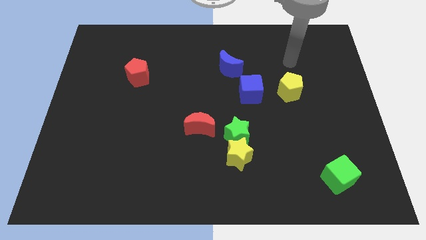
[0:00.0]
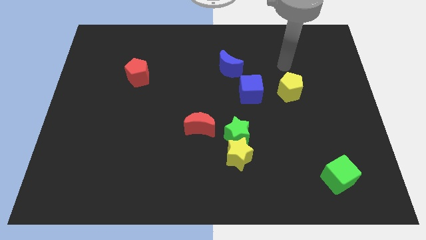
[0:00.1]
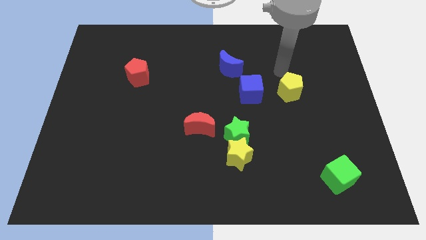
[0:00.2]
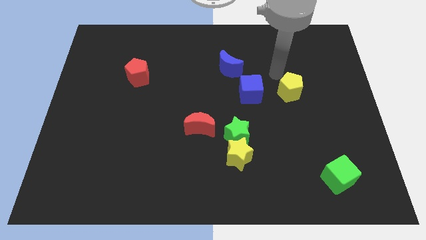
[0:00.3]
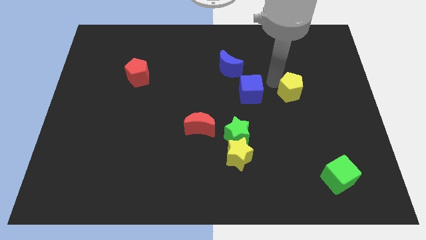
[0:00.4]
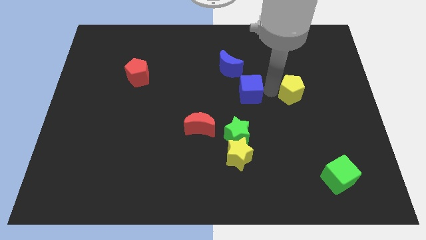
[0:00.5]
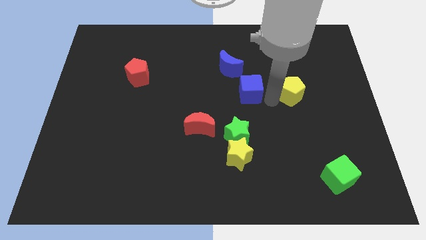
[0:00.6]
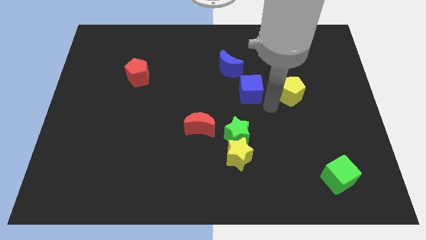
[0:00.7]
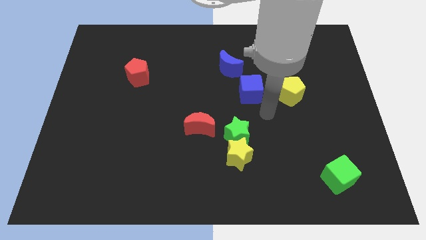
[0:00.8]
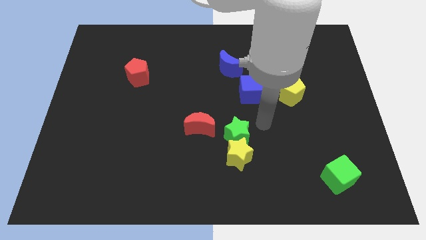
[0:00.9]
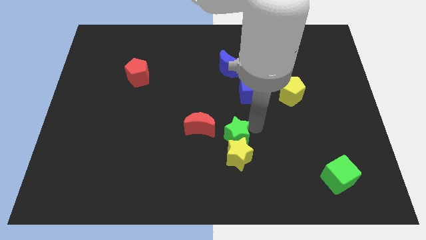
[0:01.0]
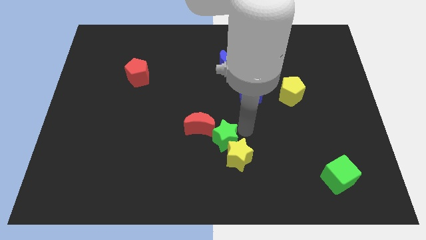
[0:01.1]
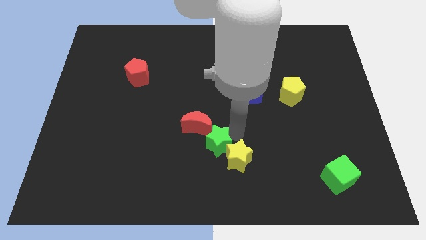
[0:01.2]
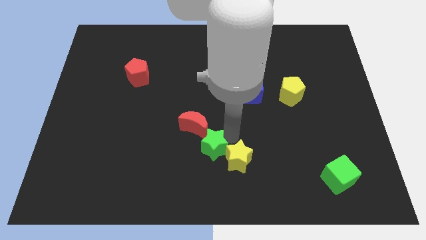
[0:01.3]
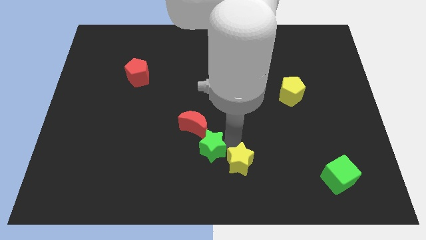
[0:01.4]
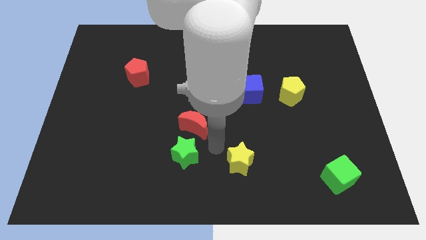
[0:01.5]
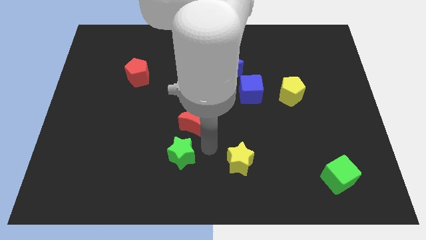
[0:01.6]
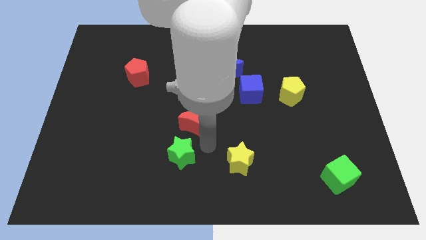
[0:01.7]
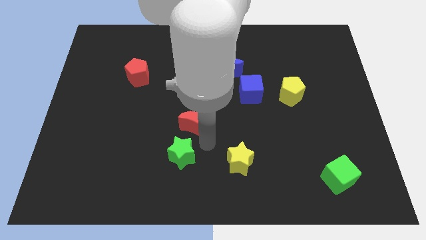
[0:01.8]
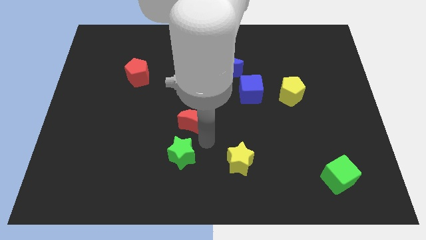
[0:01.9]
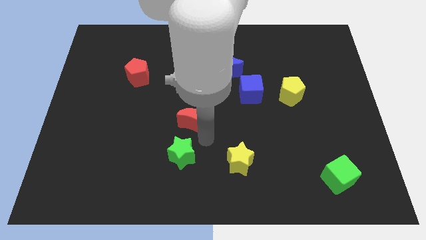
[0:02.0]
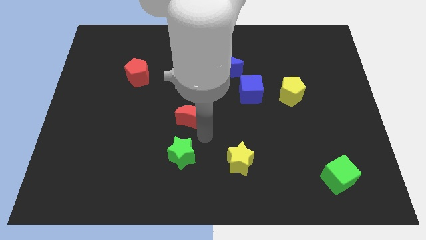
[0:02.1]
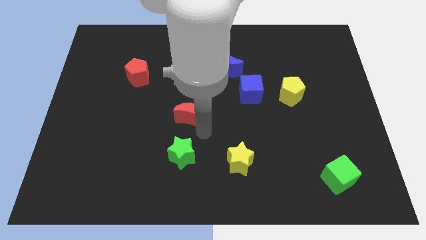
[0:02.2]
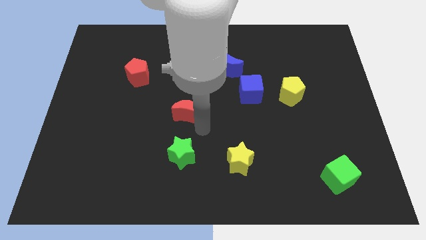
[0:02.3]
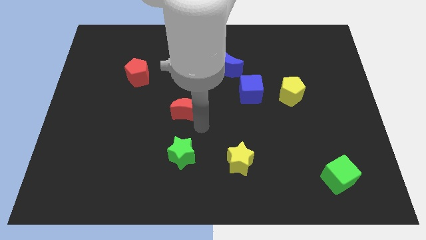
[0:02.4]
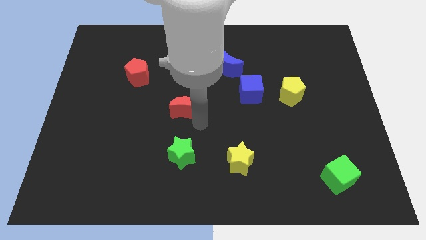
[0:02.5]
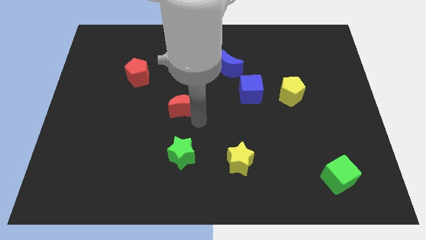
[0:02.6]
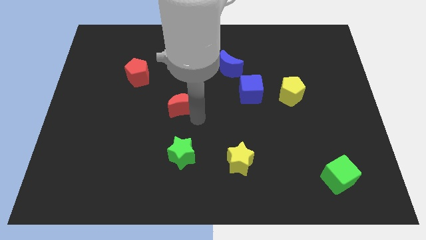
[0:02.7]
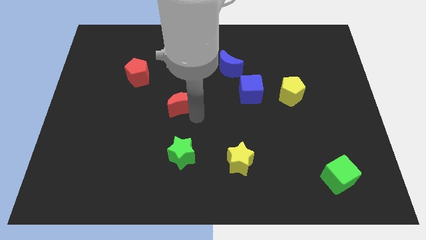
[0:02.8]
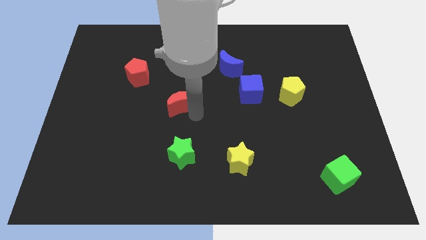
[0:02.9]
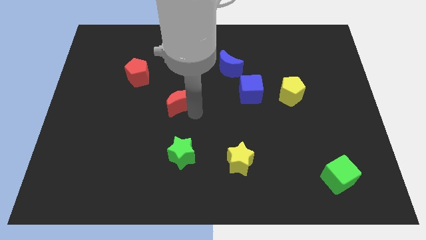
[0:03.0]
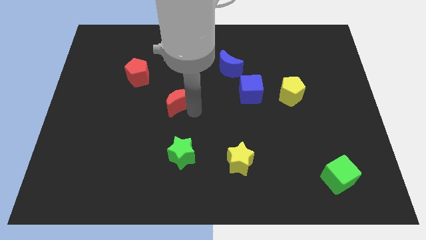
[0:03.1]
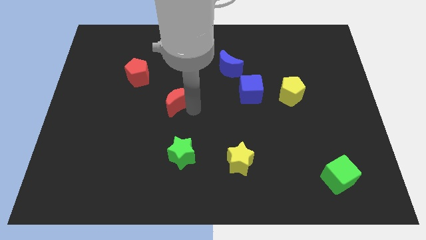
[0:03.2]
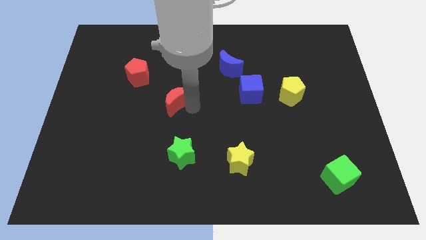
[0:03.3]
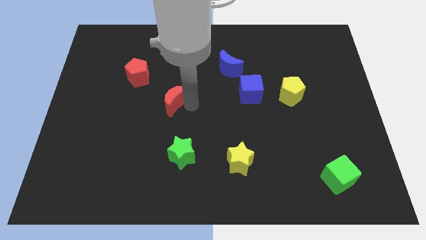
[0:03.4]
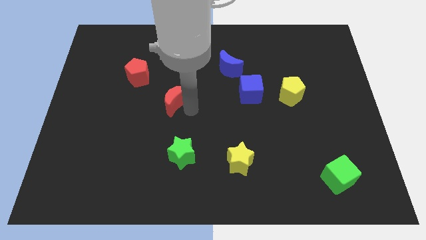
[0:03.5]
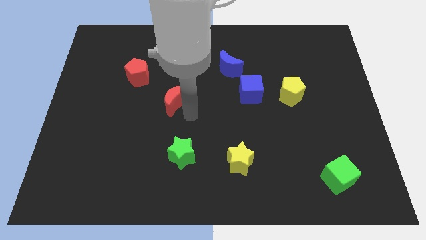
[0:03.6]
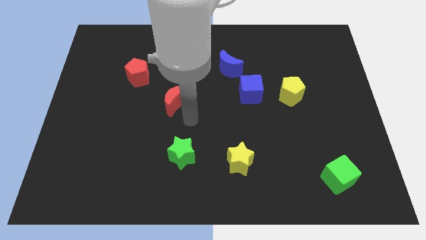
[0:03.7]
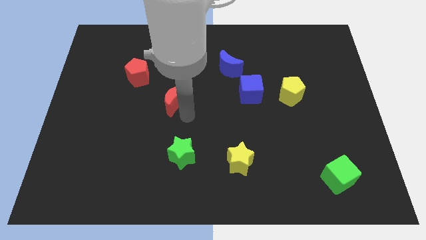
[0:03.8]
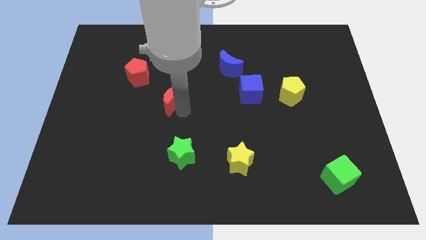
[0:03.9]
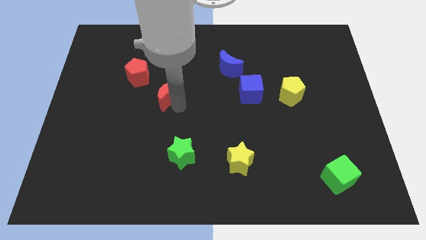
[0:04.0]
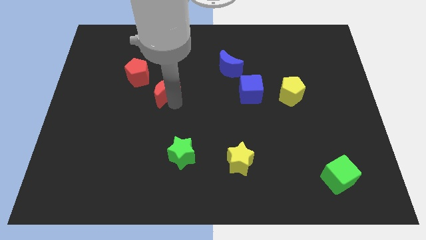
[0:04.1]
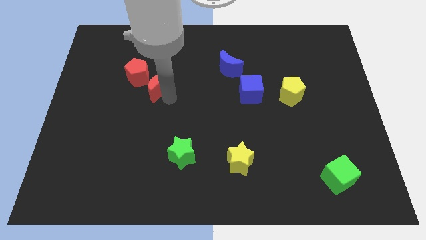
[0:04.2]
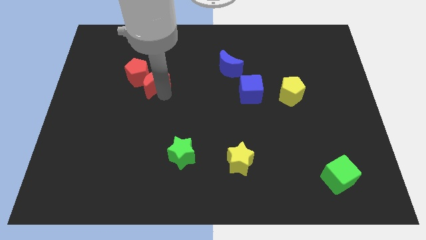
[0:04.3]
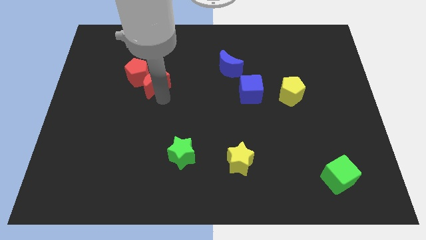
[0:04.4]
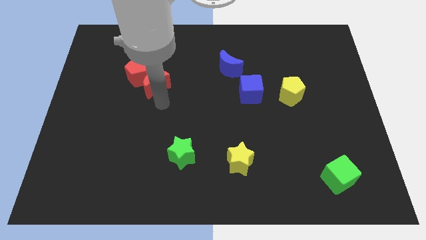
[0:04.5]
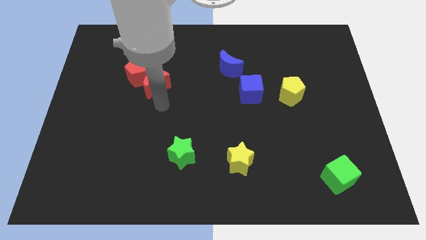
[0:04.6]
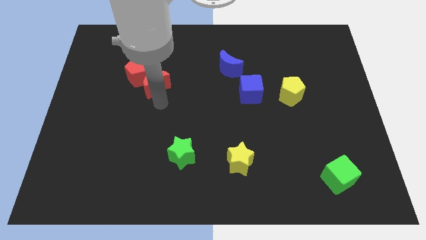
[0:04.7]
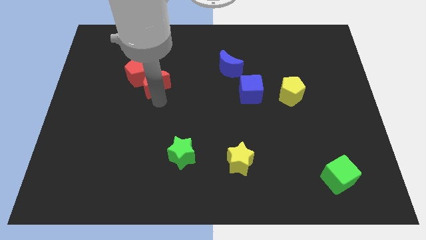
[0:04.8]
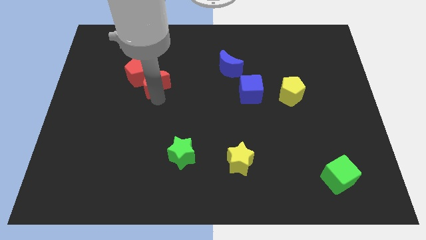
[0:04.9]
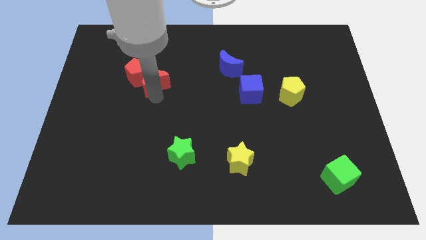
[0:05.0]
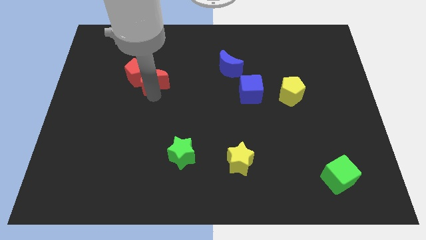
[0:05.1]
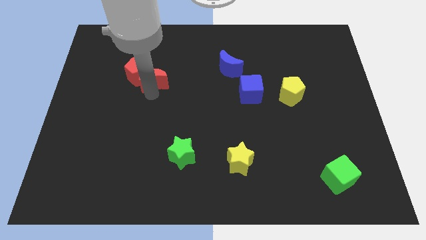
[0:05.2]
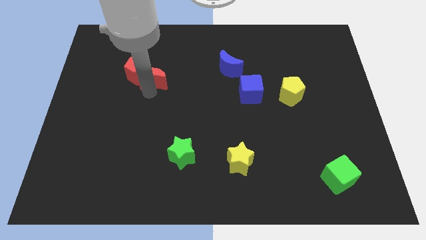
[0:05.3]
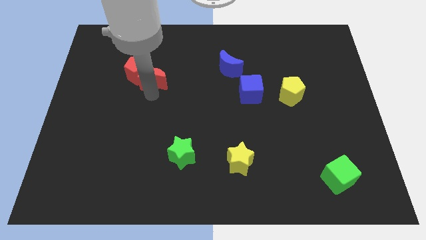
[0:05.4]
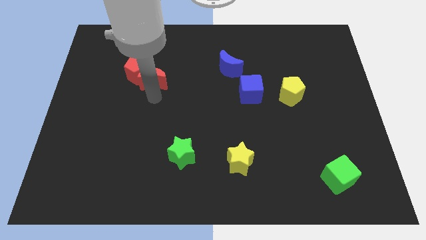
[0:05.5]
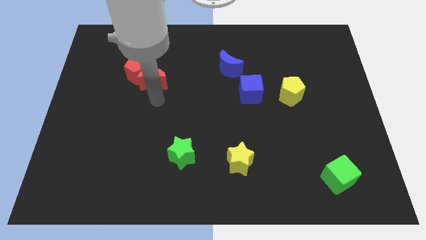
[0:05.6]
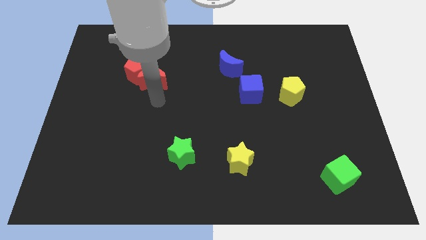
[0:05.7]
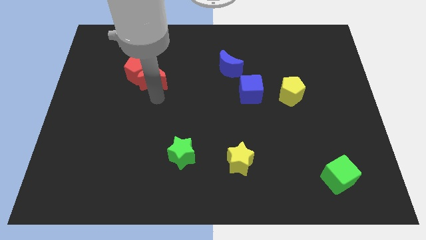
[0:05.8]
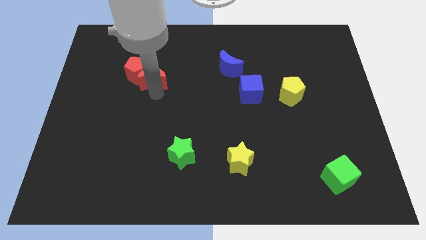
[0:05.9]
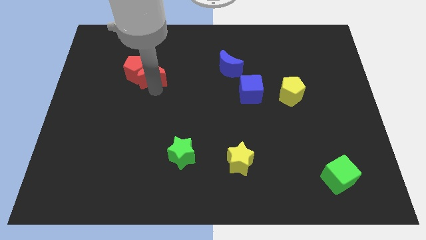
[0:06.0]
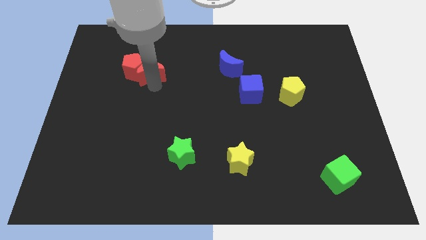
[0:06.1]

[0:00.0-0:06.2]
slide the red moon up and left

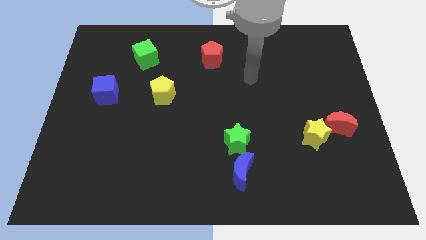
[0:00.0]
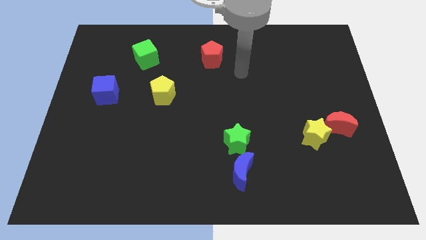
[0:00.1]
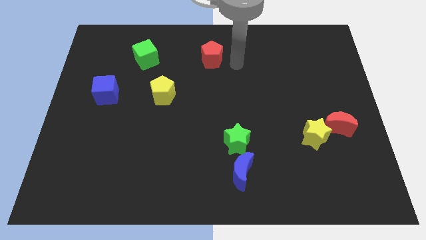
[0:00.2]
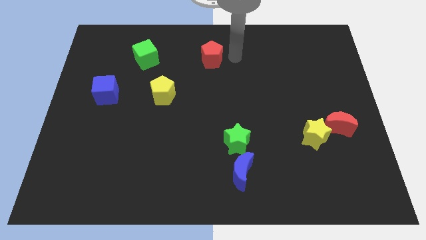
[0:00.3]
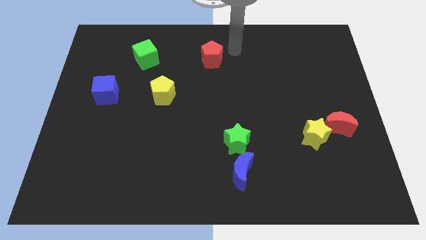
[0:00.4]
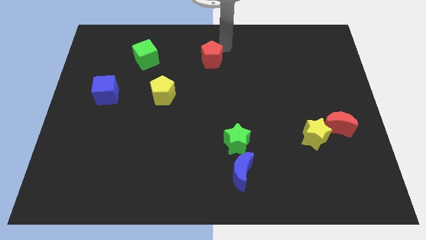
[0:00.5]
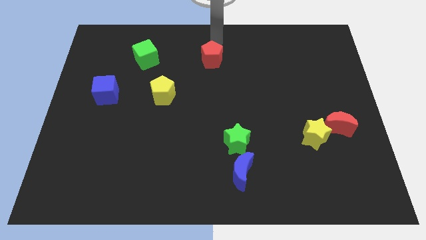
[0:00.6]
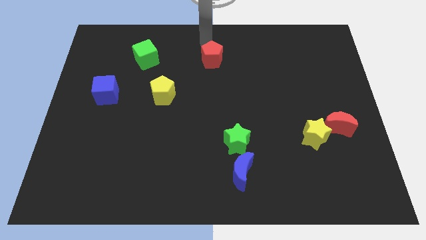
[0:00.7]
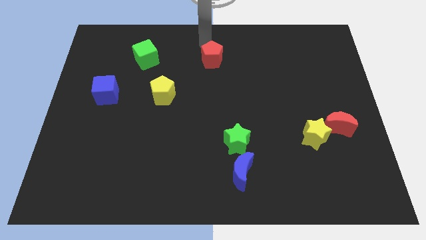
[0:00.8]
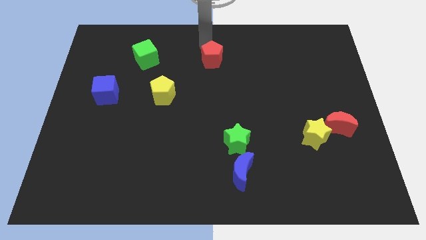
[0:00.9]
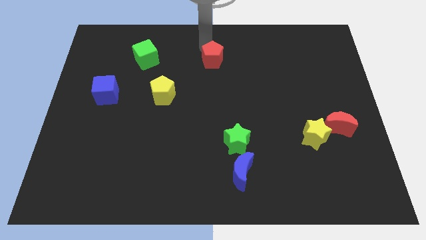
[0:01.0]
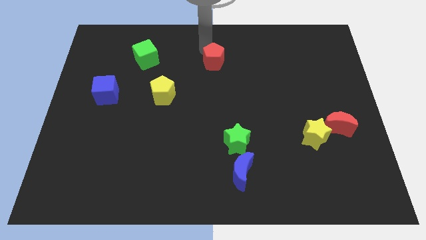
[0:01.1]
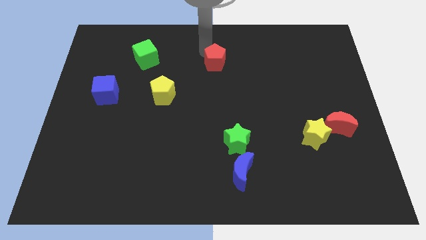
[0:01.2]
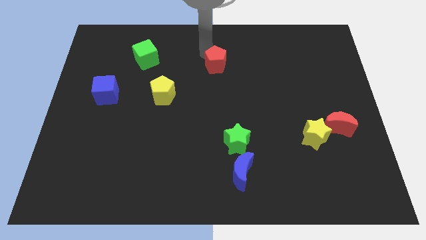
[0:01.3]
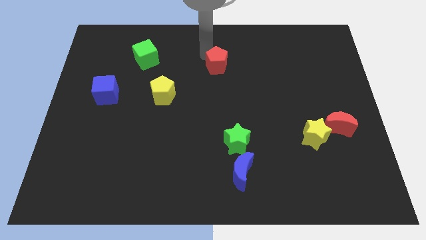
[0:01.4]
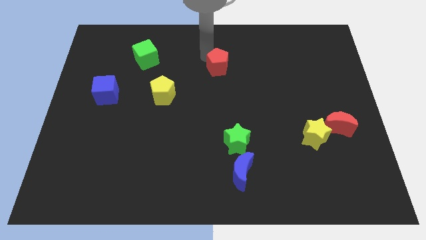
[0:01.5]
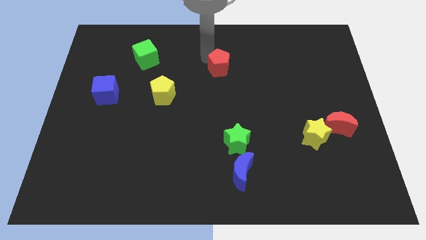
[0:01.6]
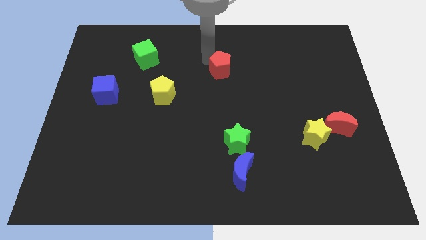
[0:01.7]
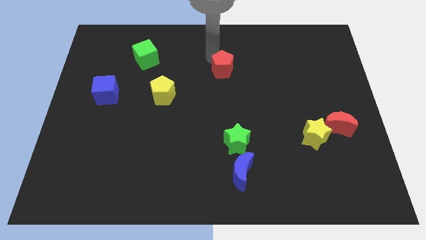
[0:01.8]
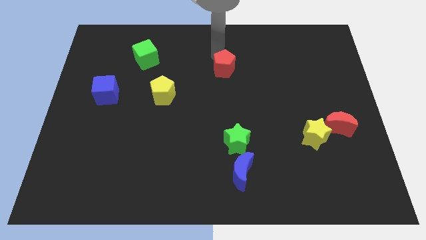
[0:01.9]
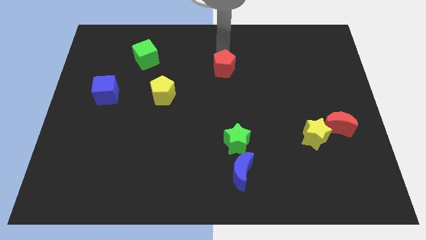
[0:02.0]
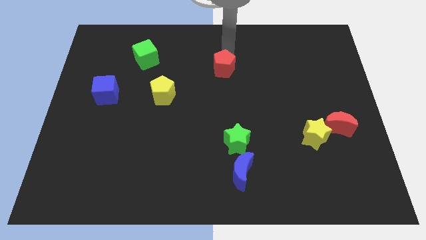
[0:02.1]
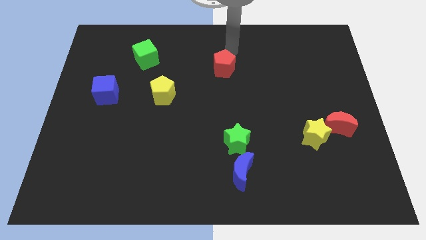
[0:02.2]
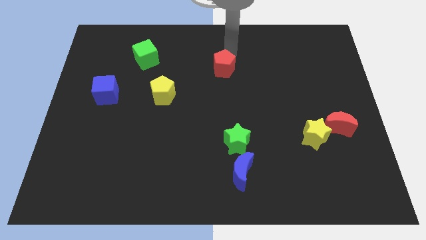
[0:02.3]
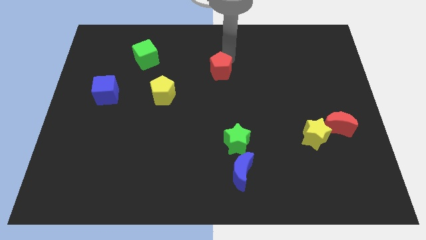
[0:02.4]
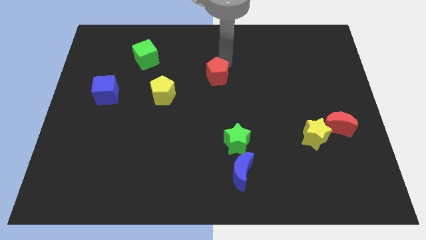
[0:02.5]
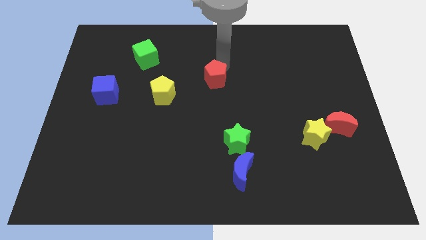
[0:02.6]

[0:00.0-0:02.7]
slightly push the red pentagon down
